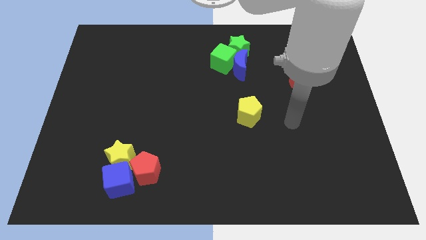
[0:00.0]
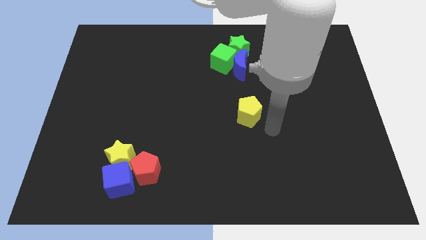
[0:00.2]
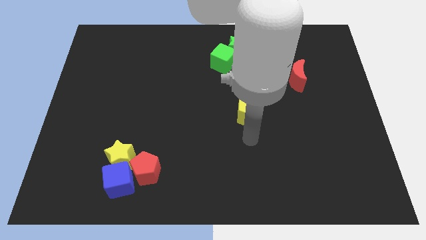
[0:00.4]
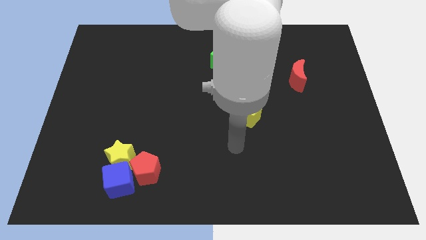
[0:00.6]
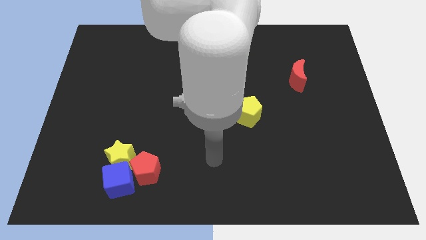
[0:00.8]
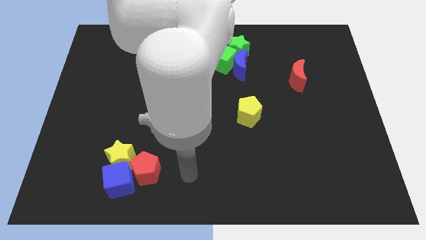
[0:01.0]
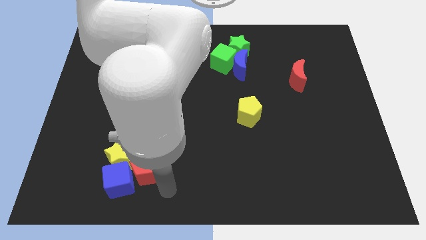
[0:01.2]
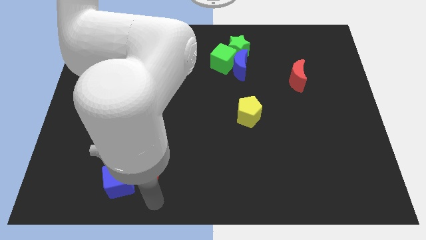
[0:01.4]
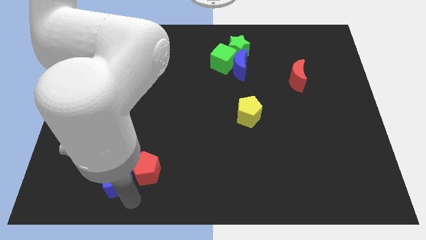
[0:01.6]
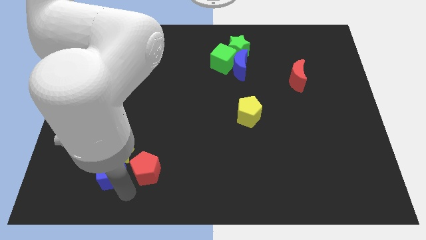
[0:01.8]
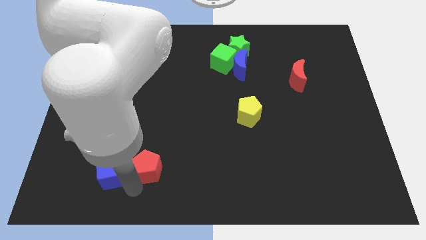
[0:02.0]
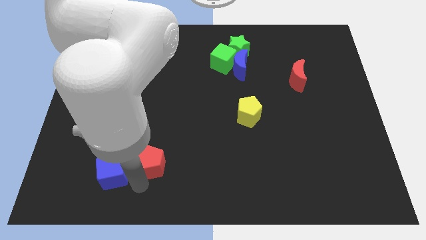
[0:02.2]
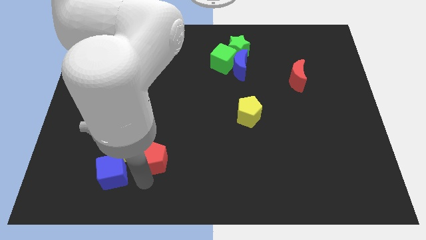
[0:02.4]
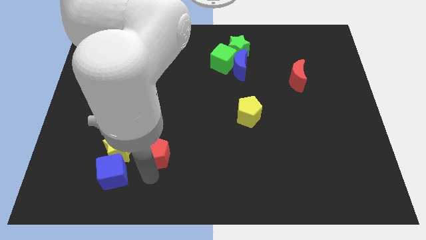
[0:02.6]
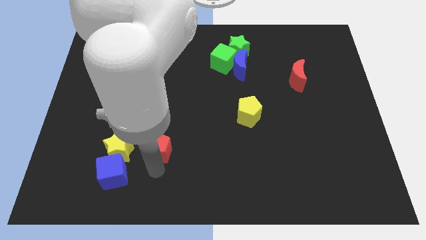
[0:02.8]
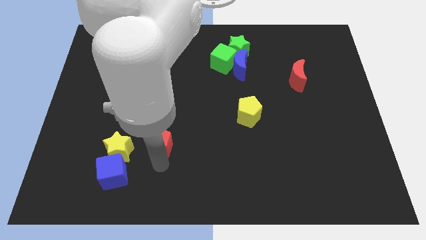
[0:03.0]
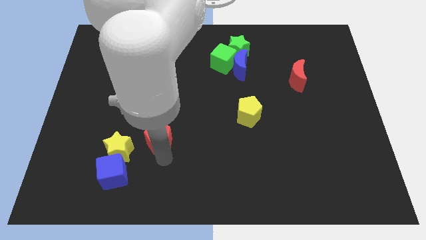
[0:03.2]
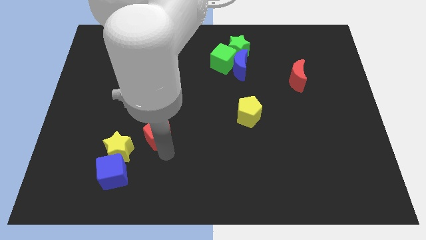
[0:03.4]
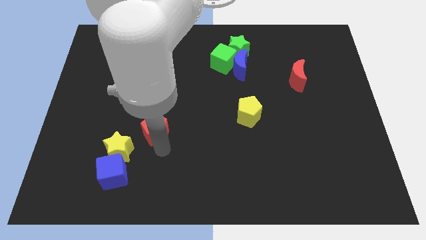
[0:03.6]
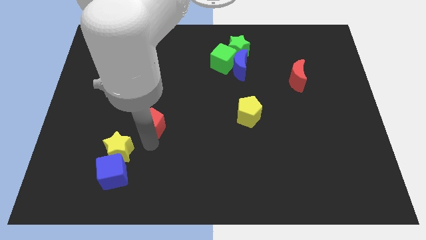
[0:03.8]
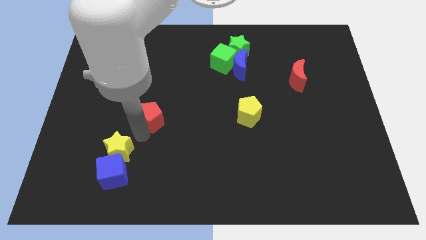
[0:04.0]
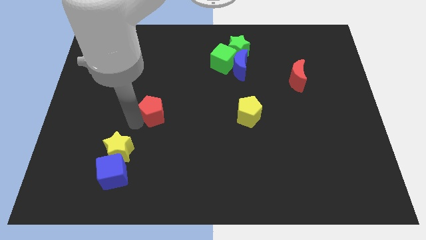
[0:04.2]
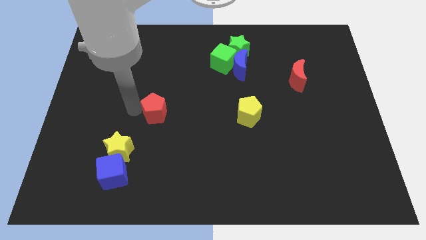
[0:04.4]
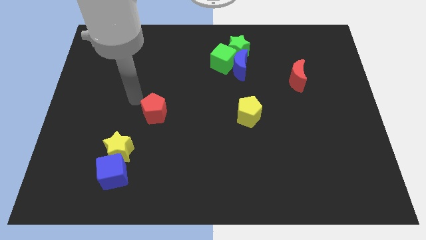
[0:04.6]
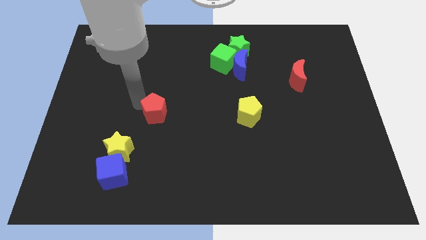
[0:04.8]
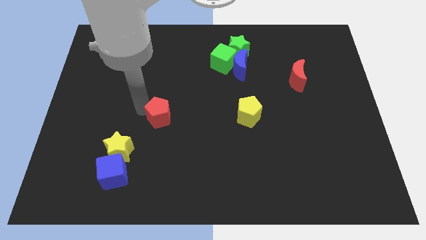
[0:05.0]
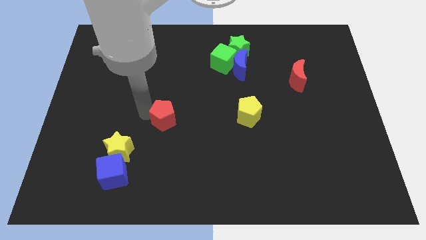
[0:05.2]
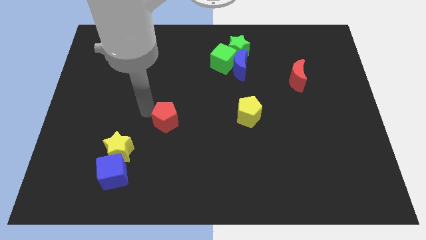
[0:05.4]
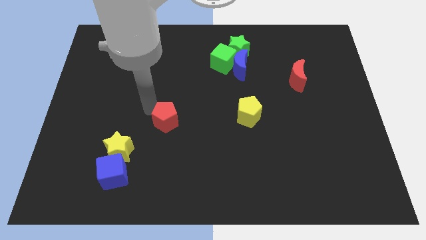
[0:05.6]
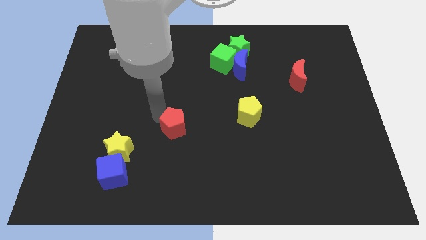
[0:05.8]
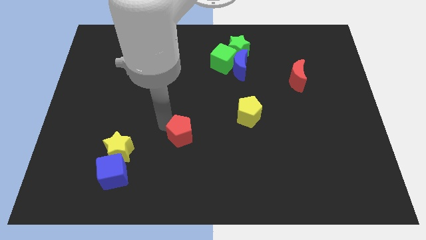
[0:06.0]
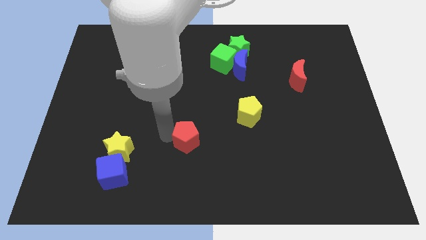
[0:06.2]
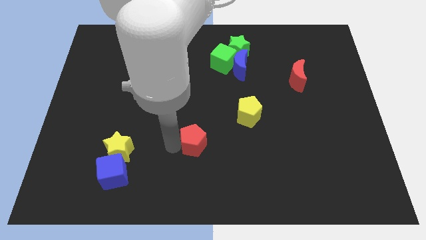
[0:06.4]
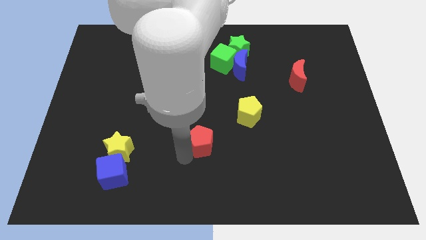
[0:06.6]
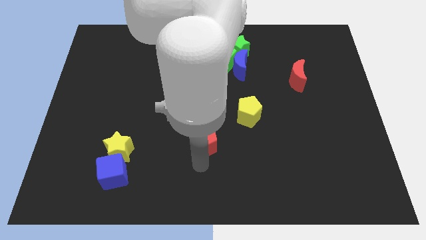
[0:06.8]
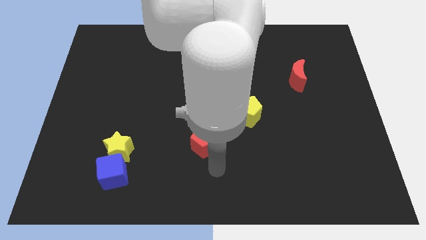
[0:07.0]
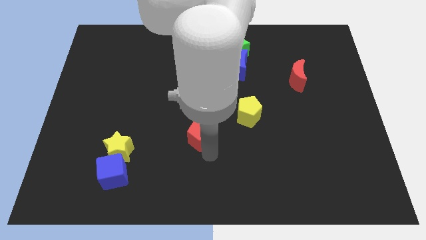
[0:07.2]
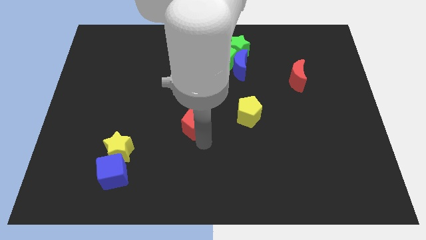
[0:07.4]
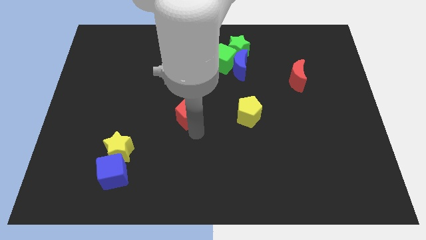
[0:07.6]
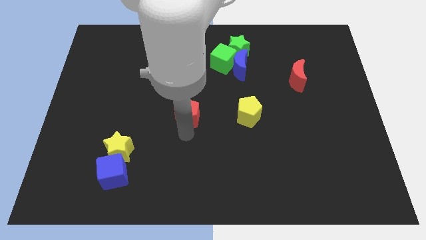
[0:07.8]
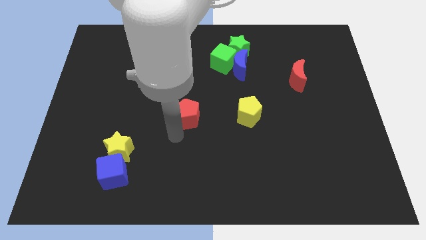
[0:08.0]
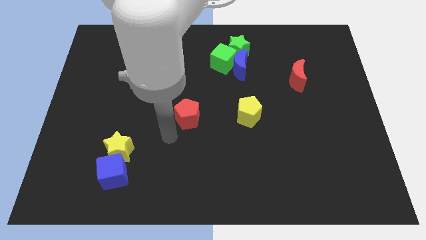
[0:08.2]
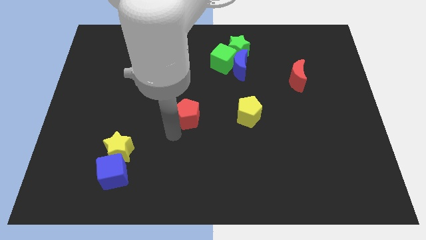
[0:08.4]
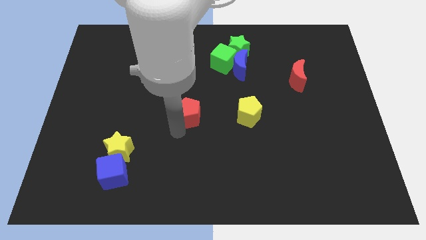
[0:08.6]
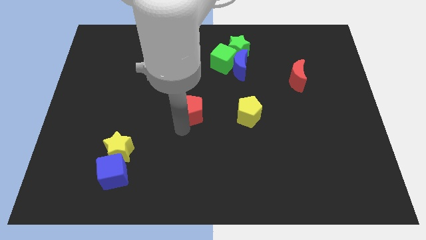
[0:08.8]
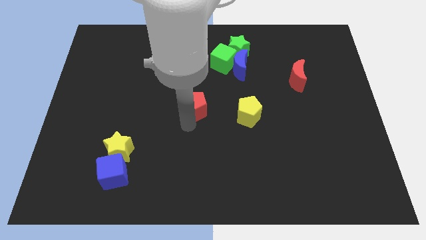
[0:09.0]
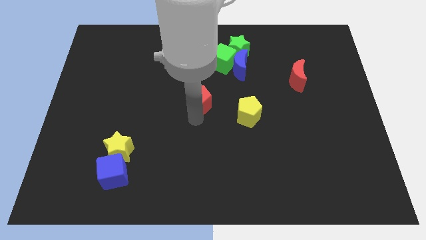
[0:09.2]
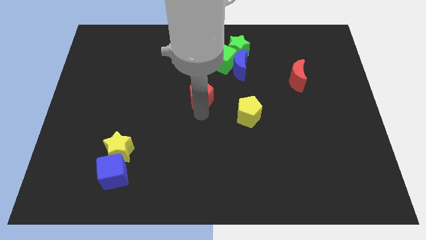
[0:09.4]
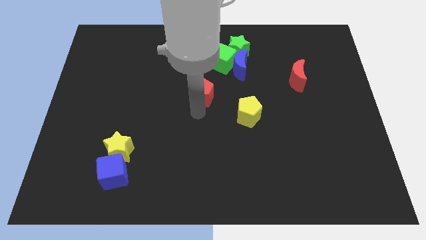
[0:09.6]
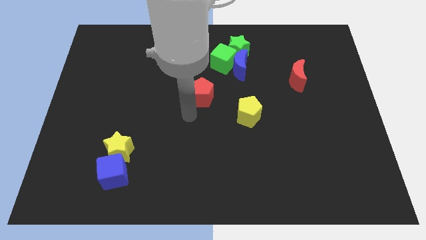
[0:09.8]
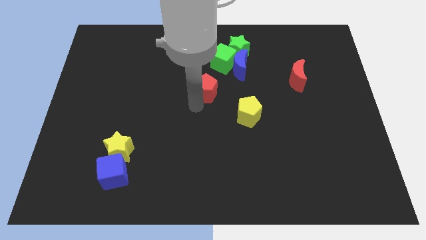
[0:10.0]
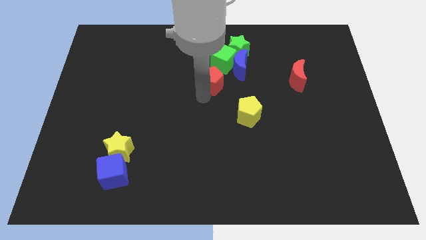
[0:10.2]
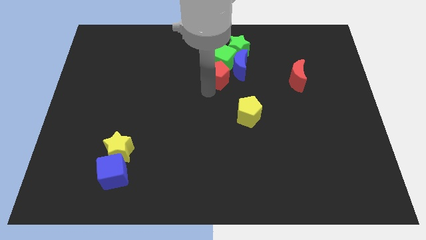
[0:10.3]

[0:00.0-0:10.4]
push the red pentagon to the green cube

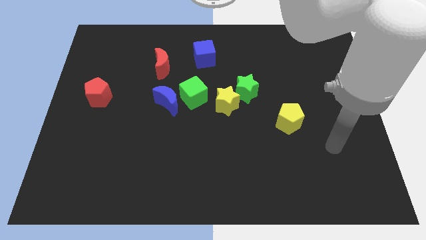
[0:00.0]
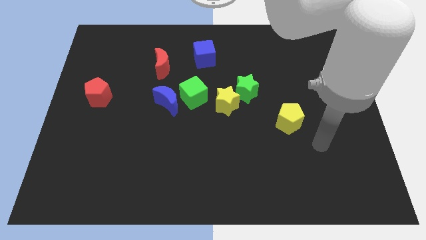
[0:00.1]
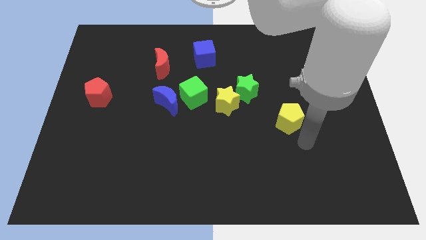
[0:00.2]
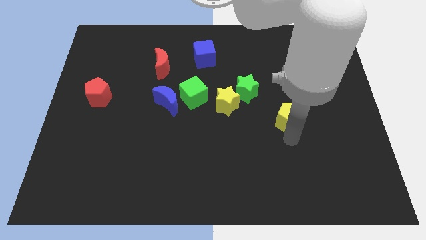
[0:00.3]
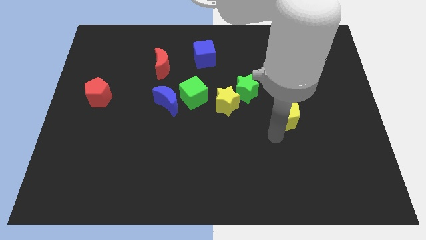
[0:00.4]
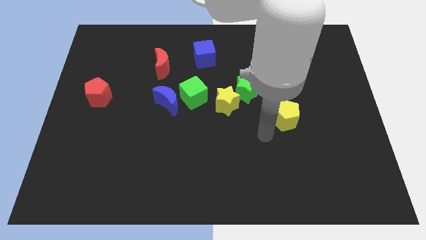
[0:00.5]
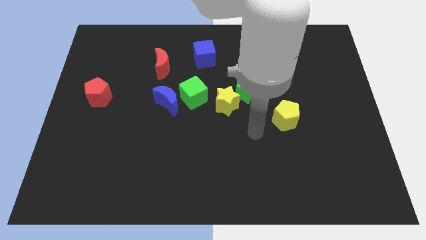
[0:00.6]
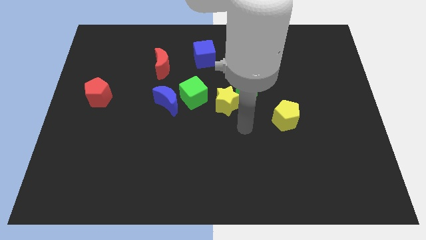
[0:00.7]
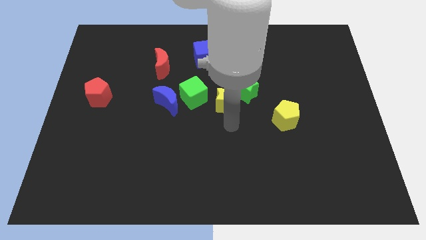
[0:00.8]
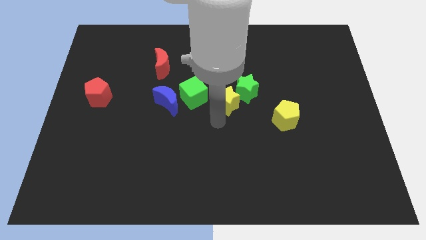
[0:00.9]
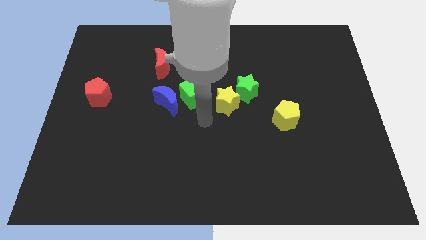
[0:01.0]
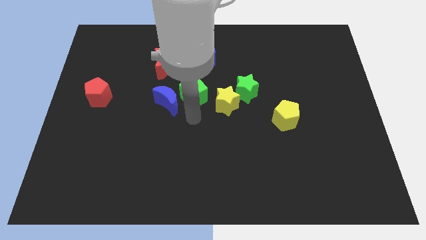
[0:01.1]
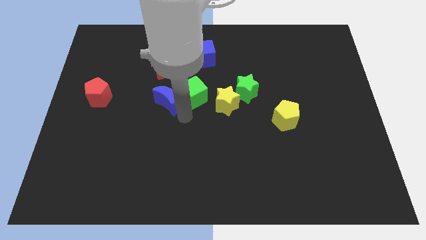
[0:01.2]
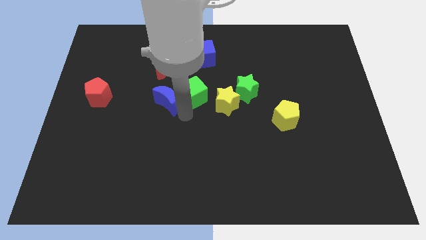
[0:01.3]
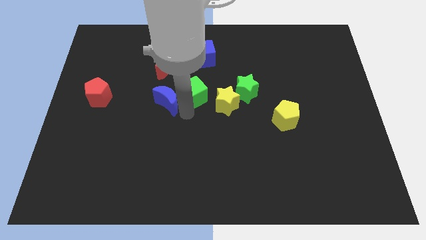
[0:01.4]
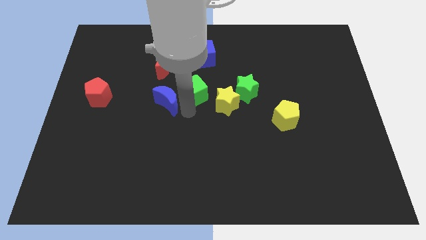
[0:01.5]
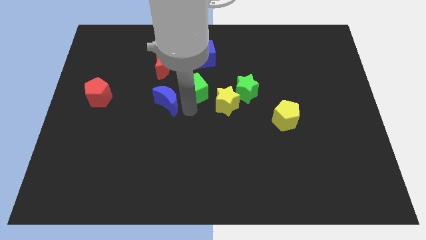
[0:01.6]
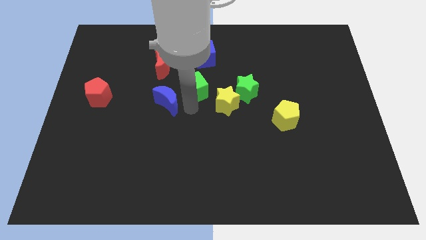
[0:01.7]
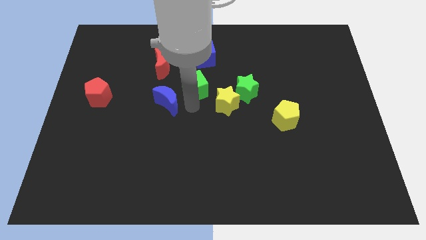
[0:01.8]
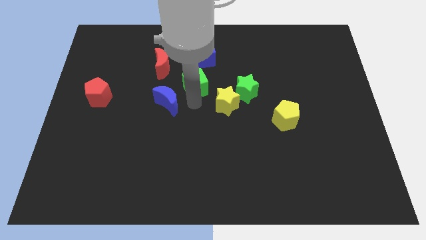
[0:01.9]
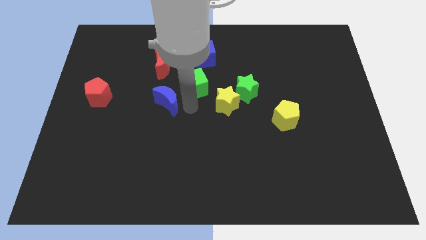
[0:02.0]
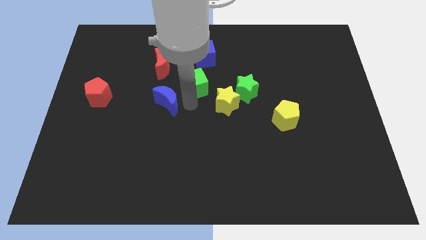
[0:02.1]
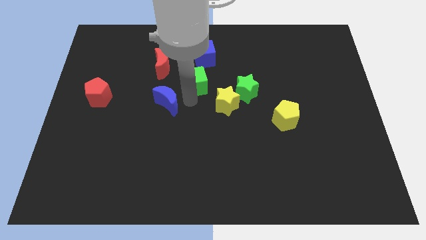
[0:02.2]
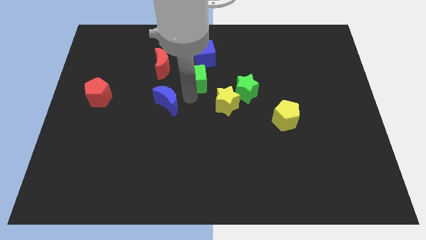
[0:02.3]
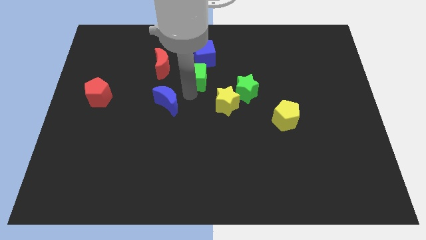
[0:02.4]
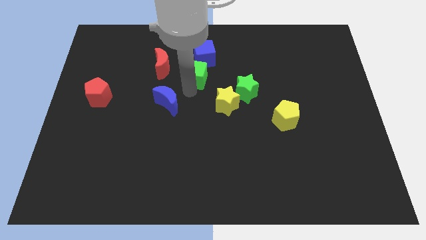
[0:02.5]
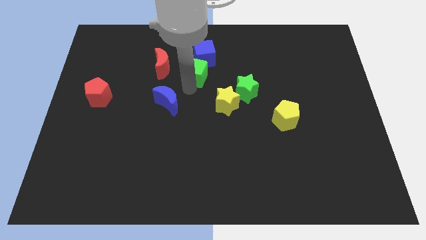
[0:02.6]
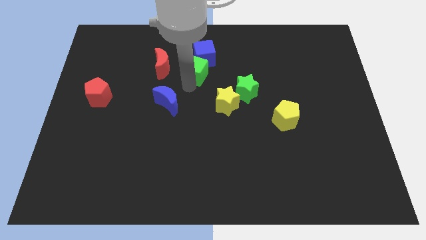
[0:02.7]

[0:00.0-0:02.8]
slide the green cube to the blue cube
